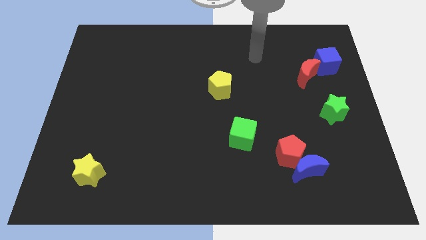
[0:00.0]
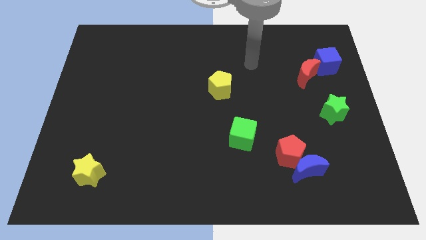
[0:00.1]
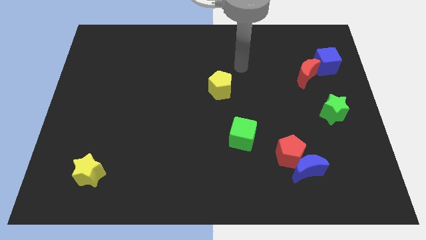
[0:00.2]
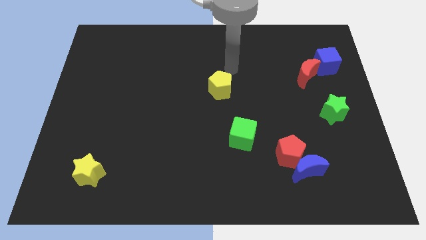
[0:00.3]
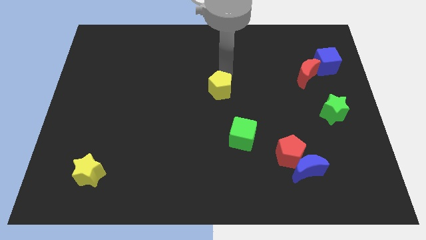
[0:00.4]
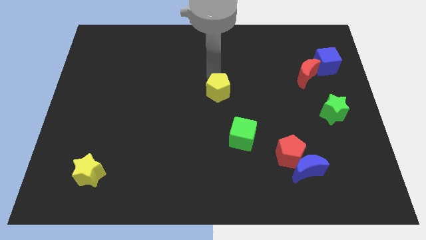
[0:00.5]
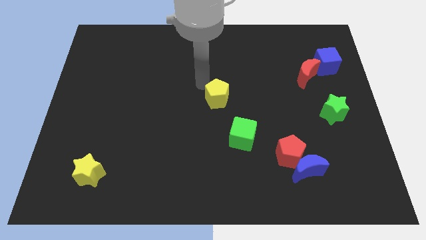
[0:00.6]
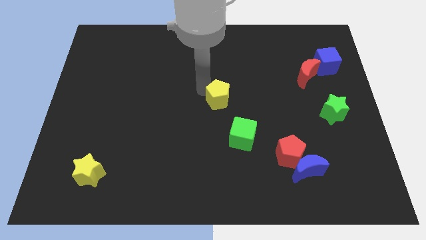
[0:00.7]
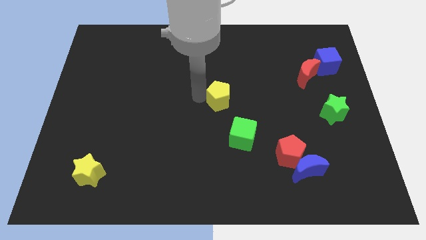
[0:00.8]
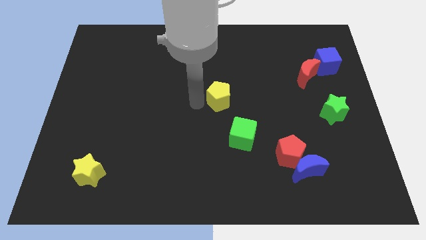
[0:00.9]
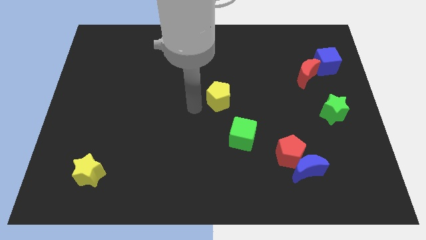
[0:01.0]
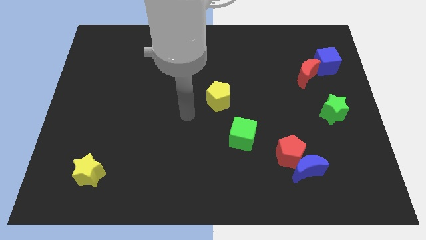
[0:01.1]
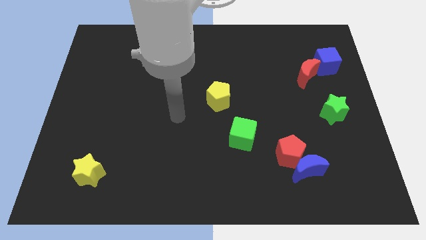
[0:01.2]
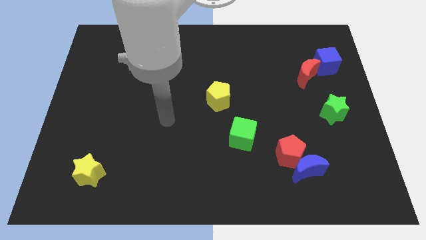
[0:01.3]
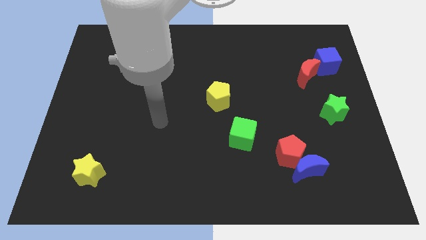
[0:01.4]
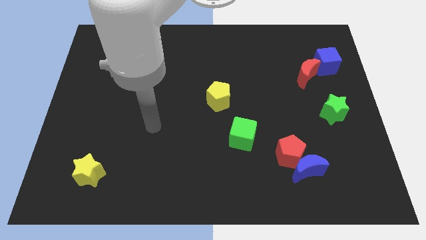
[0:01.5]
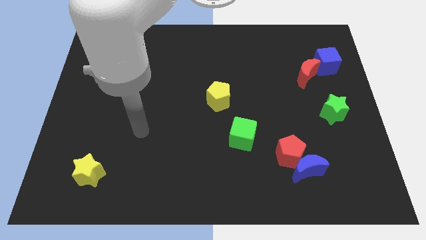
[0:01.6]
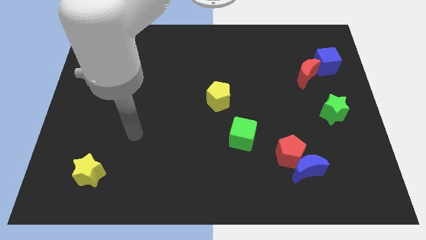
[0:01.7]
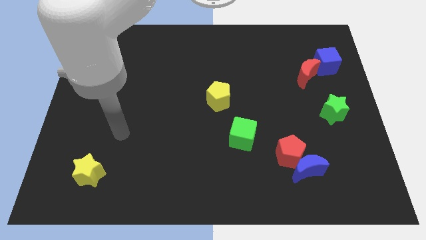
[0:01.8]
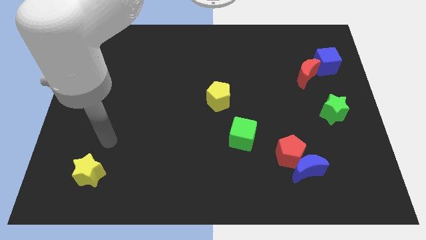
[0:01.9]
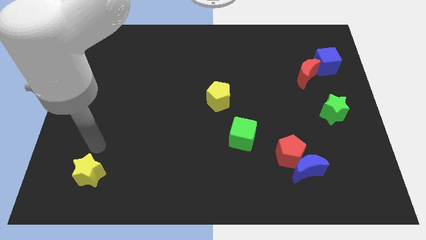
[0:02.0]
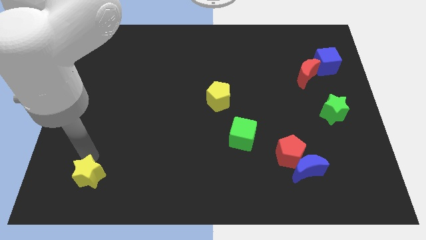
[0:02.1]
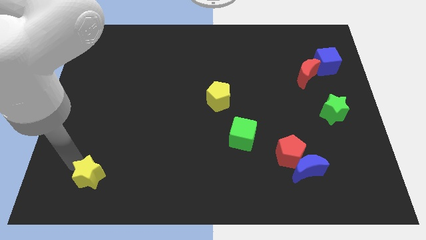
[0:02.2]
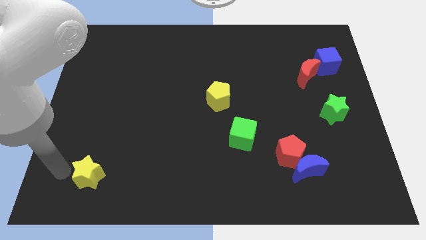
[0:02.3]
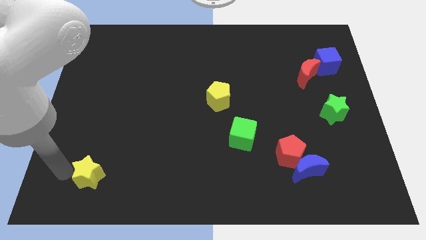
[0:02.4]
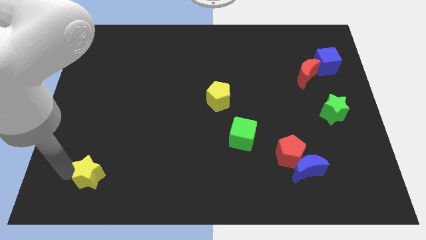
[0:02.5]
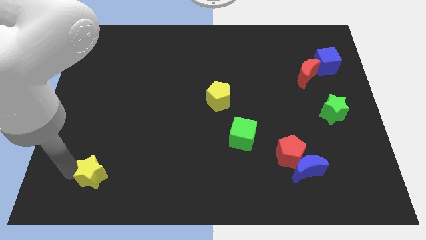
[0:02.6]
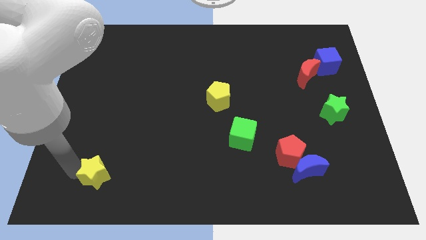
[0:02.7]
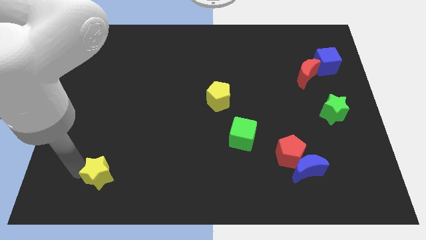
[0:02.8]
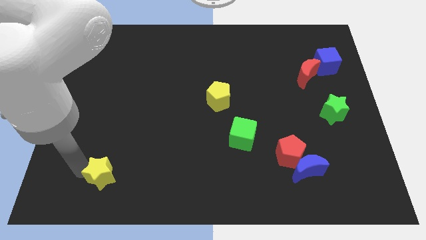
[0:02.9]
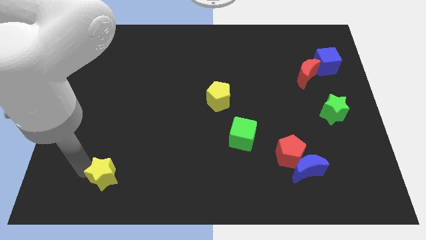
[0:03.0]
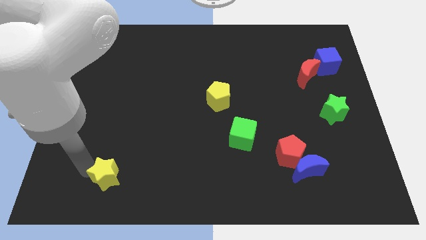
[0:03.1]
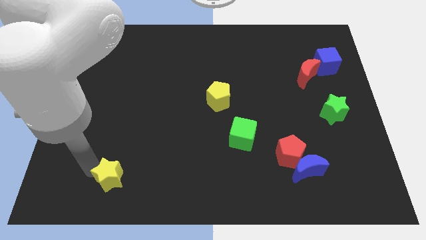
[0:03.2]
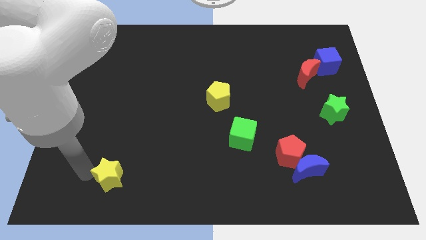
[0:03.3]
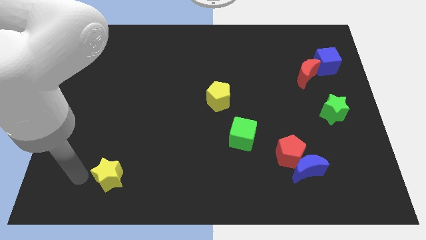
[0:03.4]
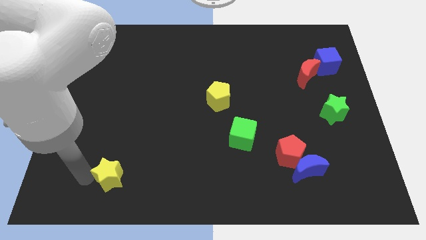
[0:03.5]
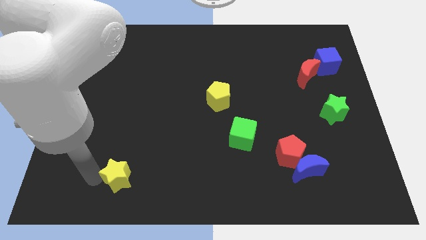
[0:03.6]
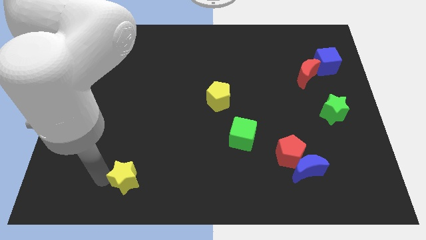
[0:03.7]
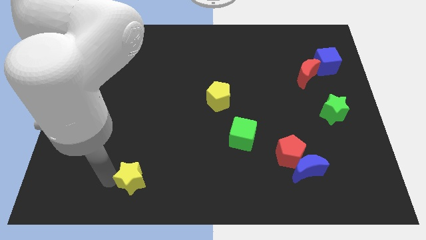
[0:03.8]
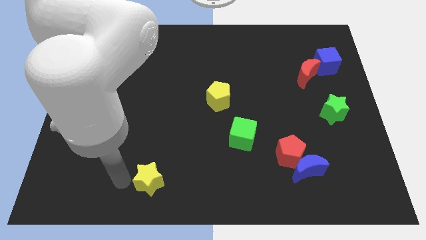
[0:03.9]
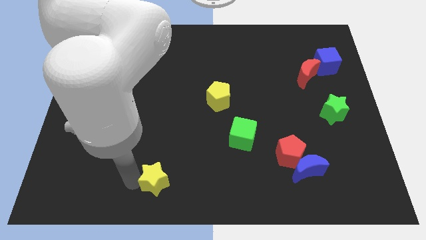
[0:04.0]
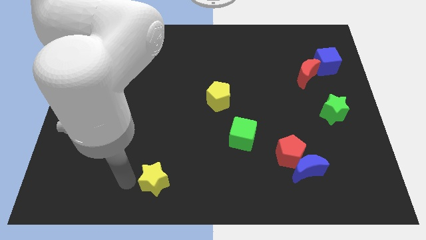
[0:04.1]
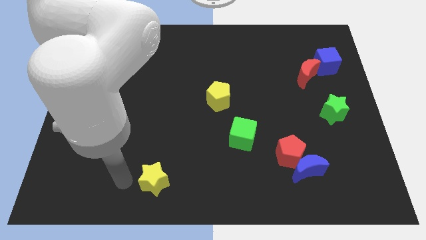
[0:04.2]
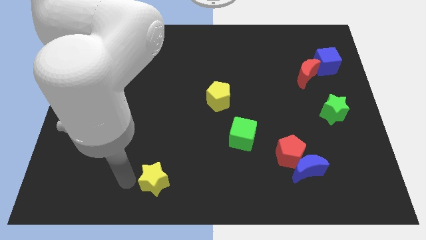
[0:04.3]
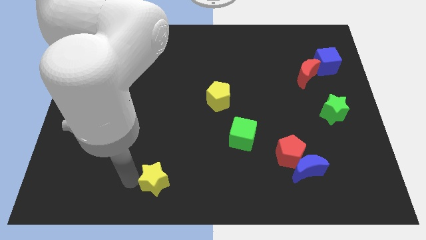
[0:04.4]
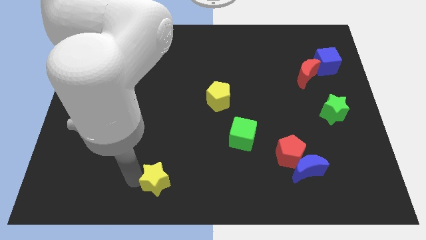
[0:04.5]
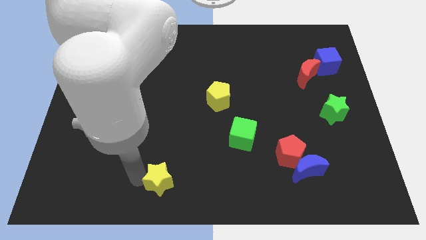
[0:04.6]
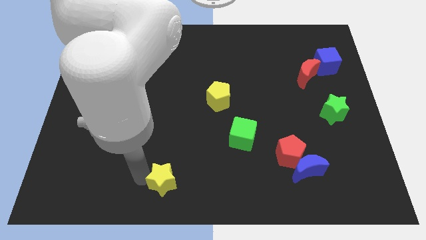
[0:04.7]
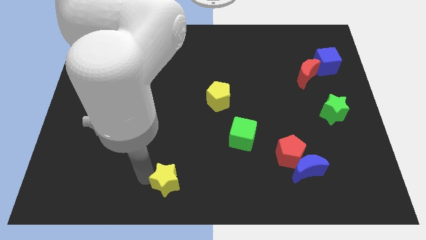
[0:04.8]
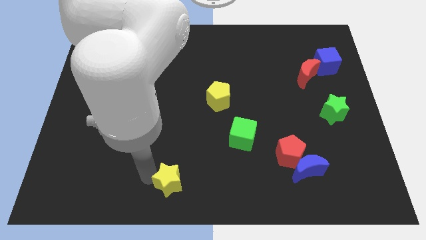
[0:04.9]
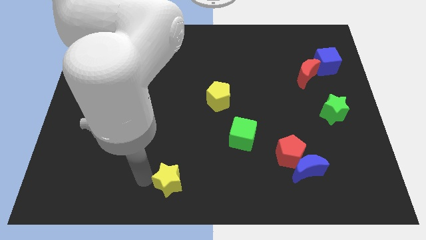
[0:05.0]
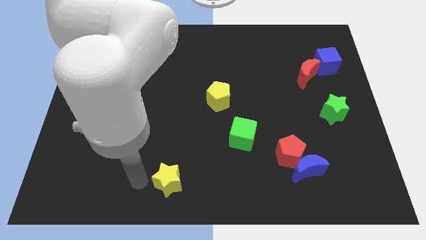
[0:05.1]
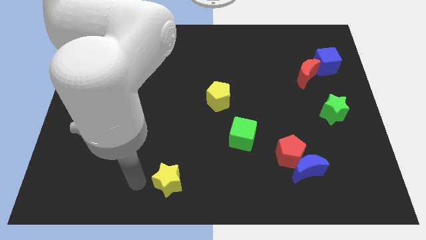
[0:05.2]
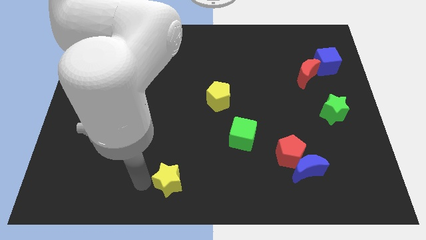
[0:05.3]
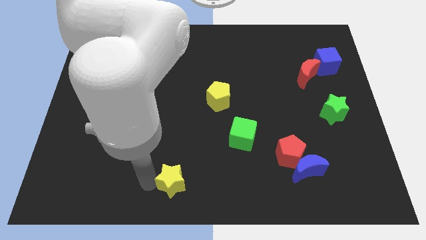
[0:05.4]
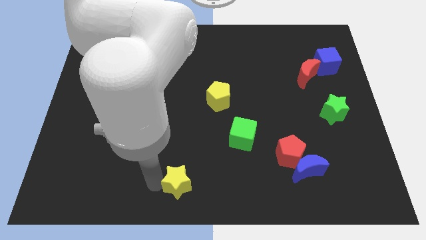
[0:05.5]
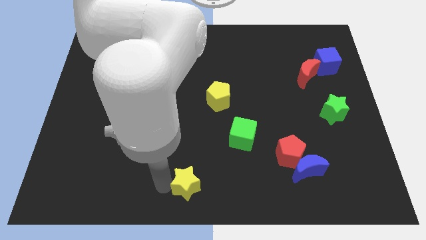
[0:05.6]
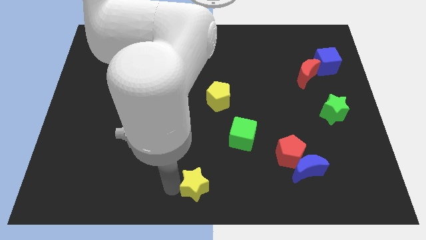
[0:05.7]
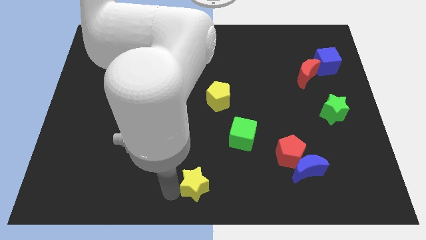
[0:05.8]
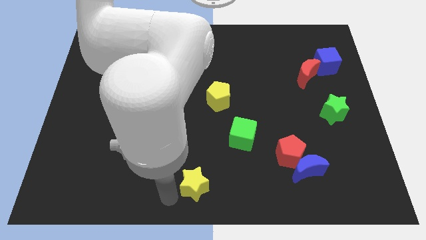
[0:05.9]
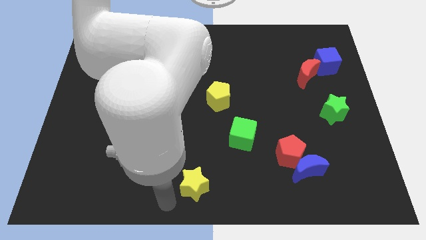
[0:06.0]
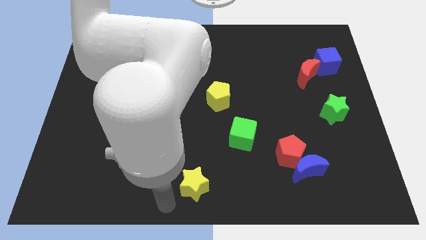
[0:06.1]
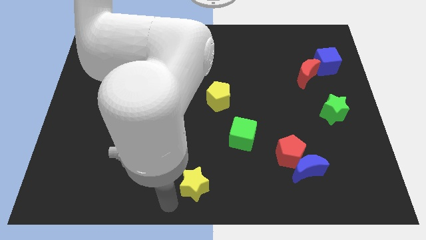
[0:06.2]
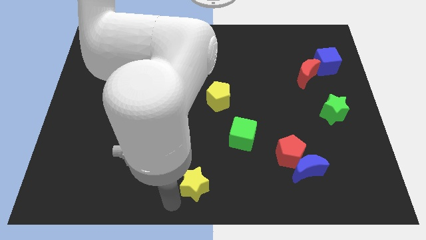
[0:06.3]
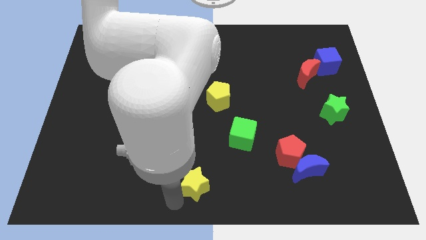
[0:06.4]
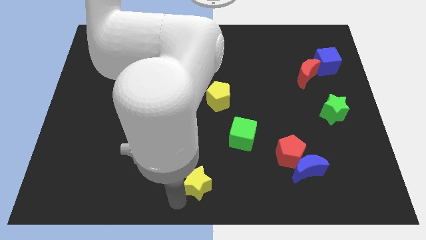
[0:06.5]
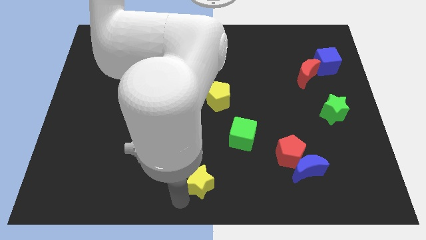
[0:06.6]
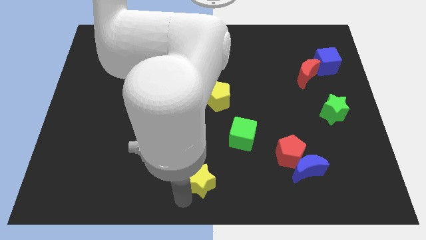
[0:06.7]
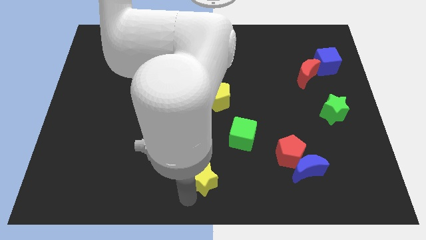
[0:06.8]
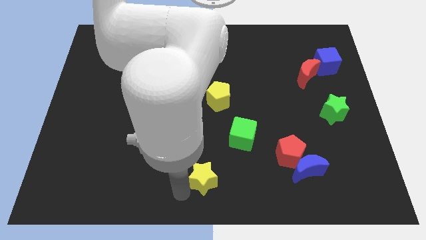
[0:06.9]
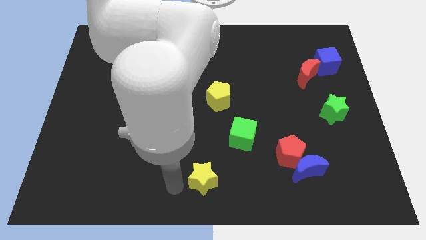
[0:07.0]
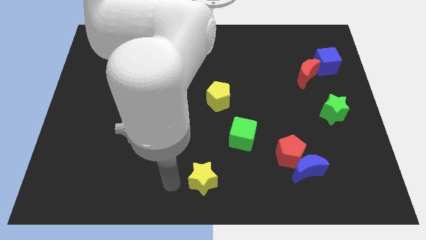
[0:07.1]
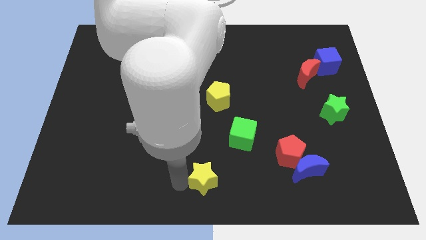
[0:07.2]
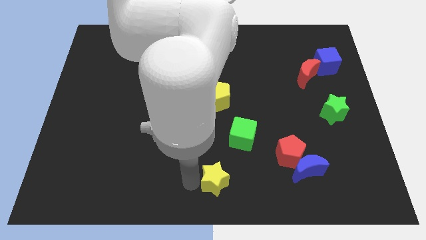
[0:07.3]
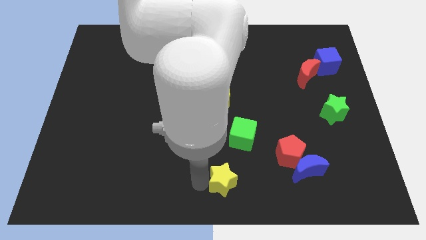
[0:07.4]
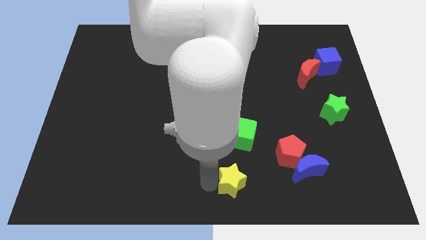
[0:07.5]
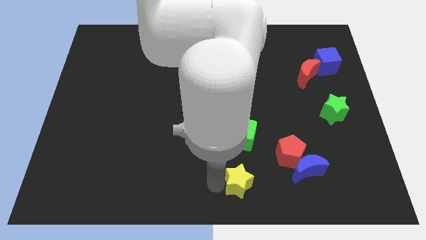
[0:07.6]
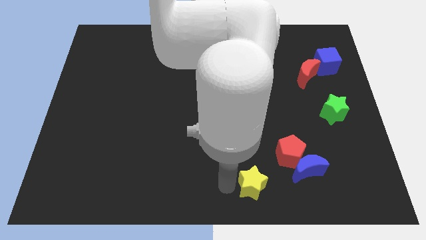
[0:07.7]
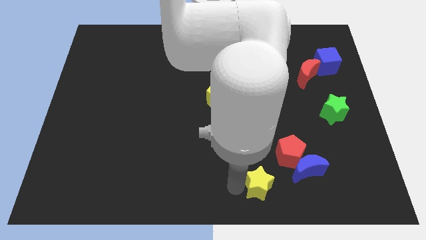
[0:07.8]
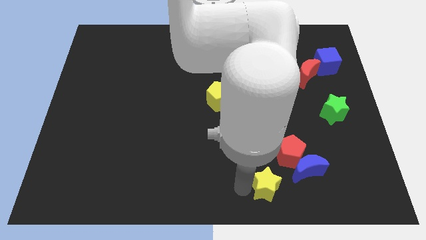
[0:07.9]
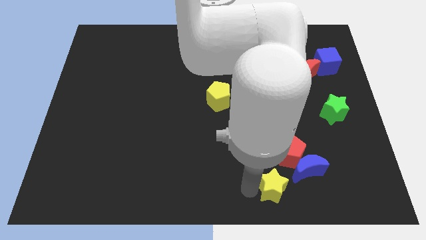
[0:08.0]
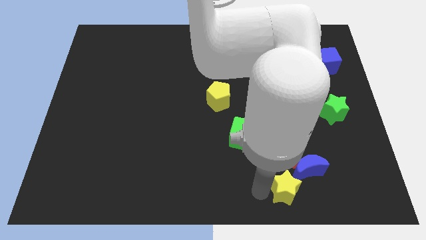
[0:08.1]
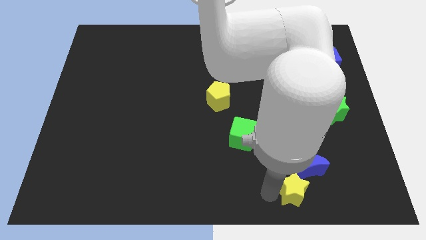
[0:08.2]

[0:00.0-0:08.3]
move the yellow star next to the blue moon
